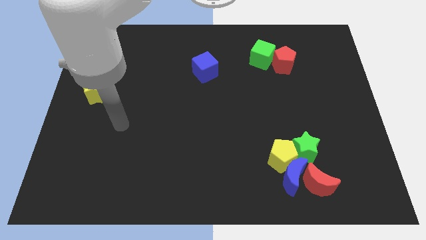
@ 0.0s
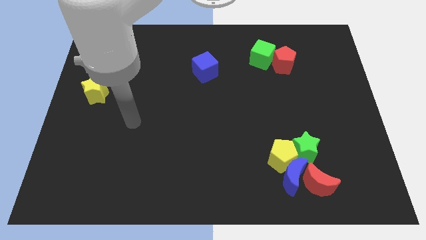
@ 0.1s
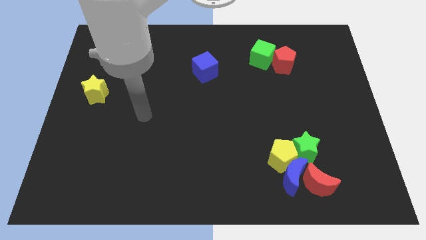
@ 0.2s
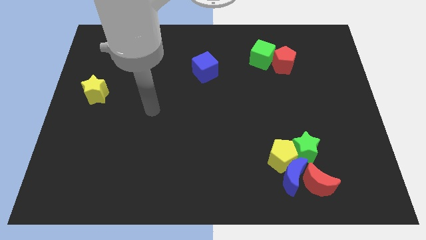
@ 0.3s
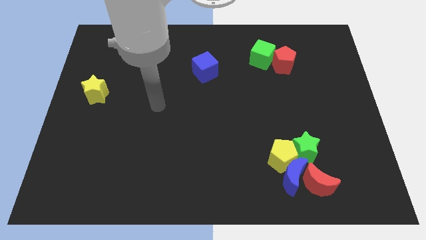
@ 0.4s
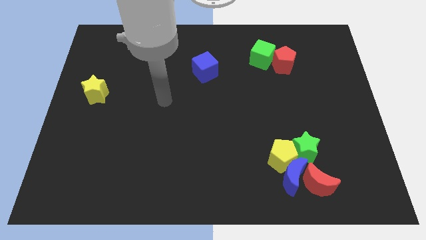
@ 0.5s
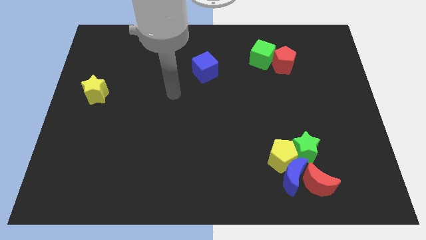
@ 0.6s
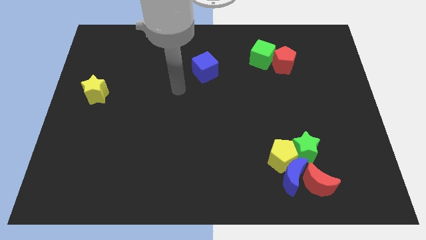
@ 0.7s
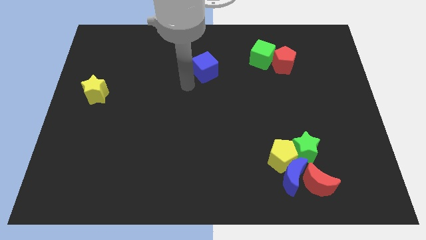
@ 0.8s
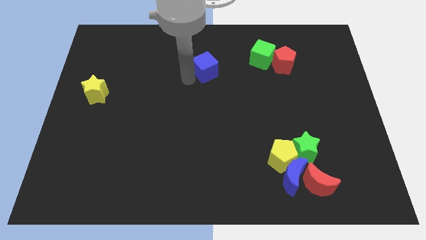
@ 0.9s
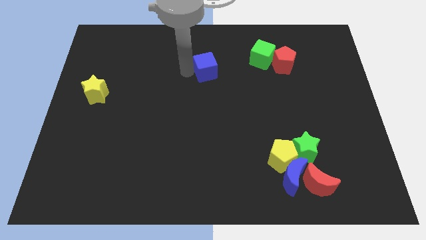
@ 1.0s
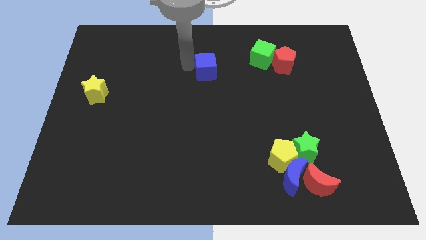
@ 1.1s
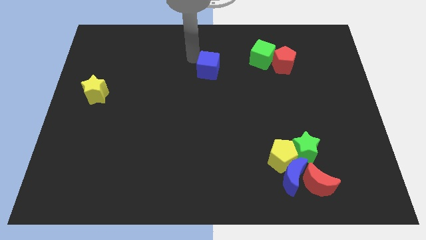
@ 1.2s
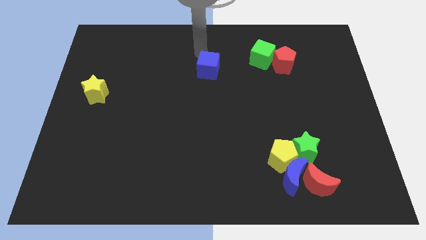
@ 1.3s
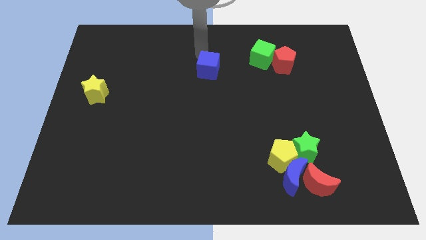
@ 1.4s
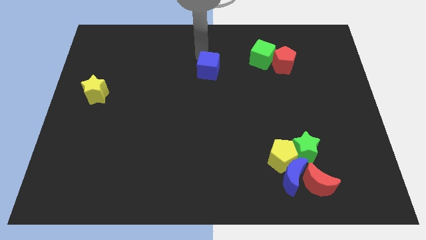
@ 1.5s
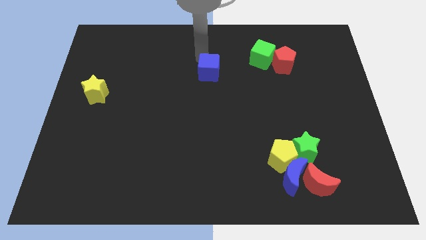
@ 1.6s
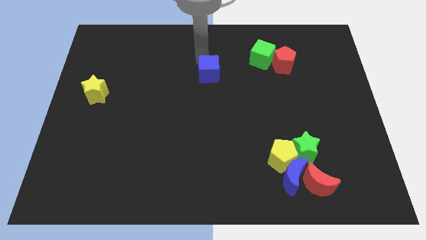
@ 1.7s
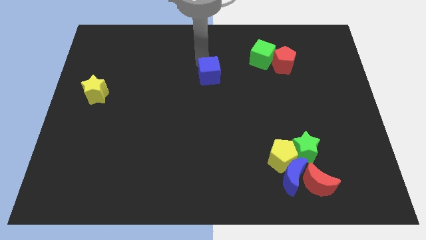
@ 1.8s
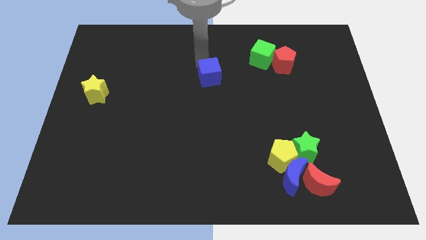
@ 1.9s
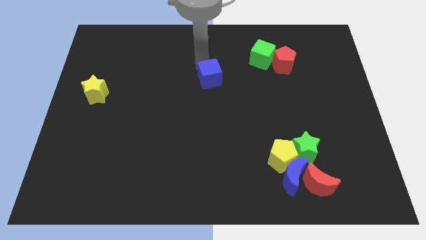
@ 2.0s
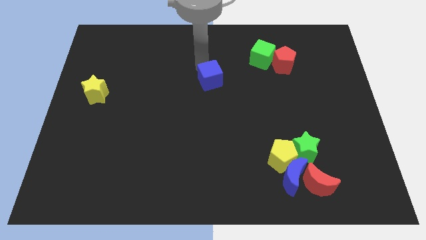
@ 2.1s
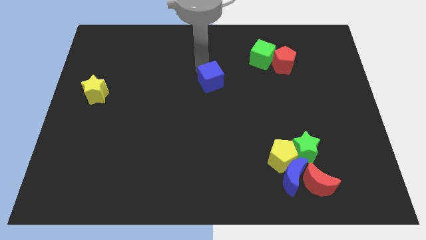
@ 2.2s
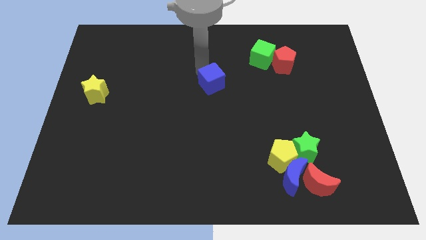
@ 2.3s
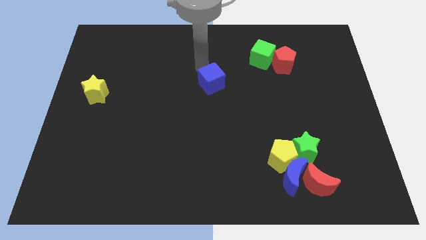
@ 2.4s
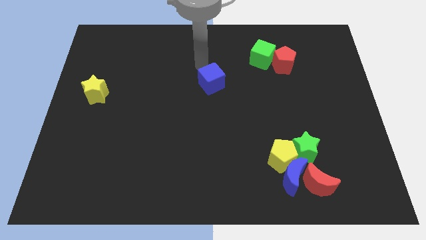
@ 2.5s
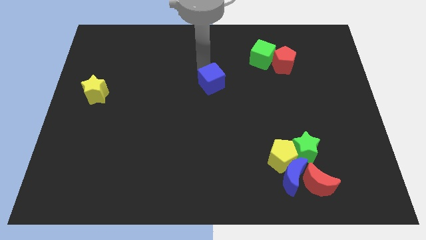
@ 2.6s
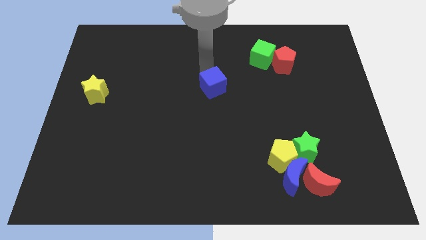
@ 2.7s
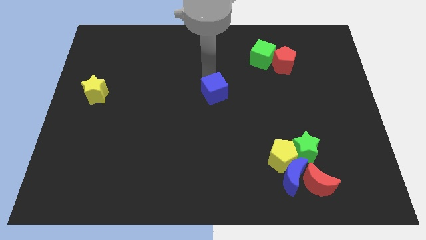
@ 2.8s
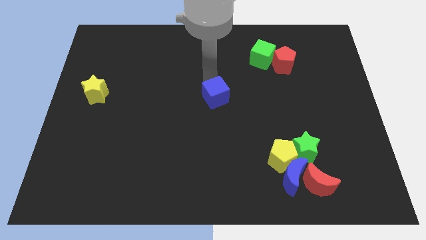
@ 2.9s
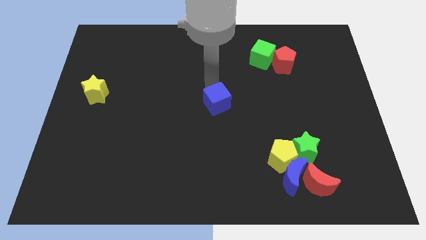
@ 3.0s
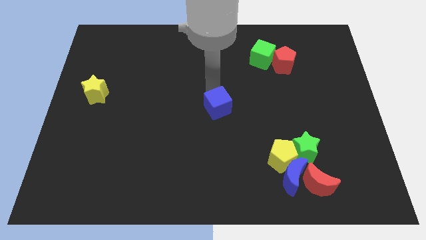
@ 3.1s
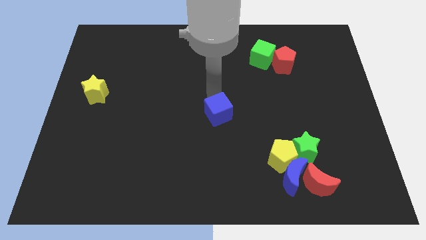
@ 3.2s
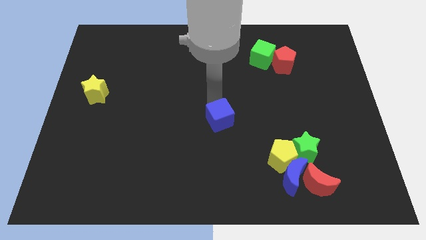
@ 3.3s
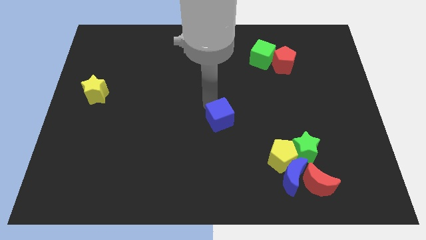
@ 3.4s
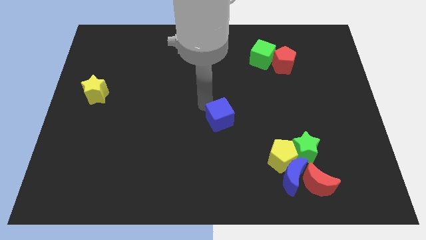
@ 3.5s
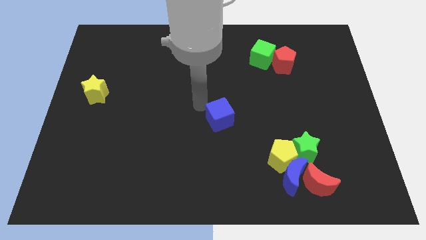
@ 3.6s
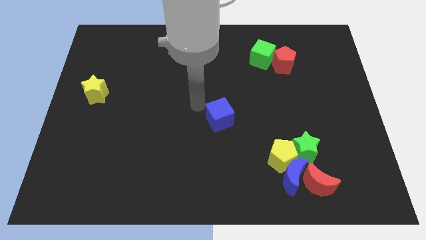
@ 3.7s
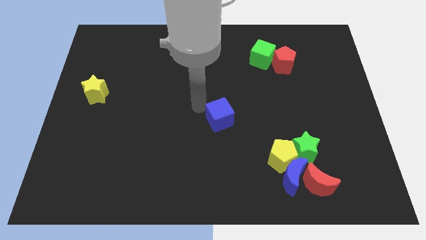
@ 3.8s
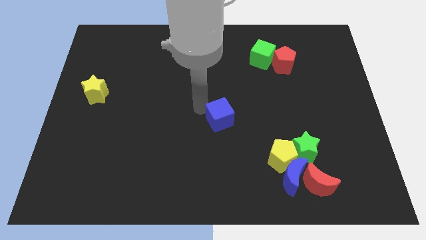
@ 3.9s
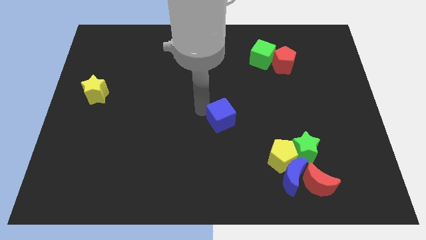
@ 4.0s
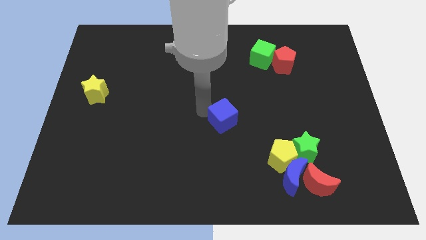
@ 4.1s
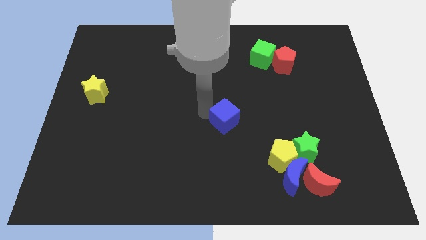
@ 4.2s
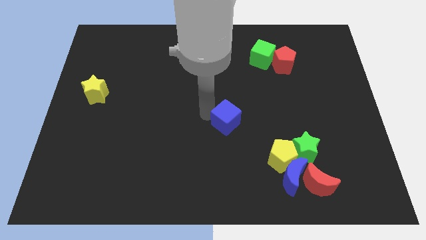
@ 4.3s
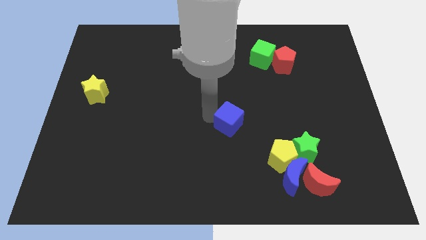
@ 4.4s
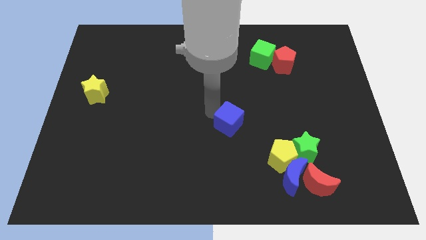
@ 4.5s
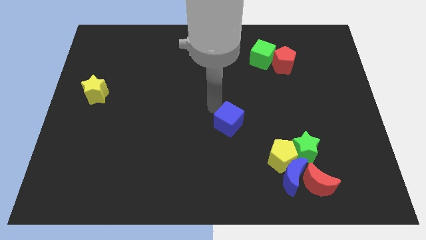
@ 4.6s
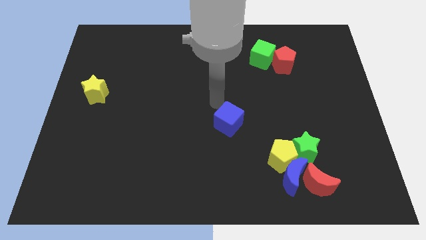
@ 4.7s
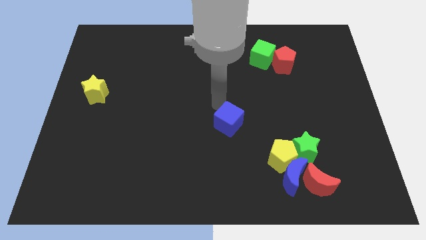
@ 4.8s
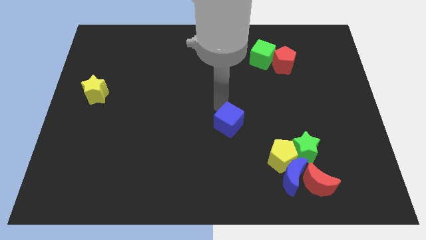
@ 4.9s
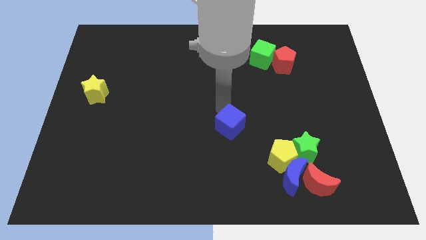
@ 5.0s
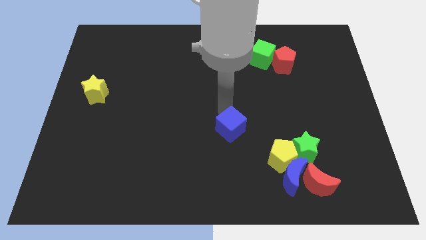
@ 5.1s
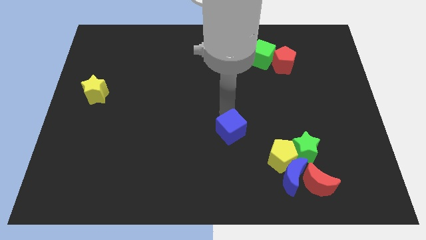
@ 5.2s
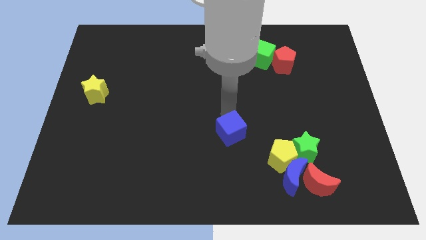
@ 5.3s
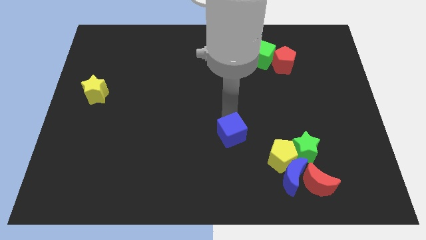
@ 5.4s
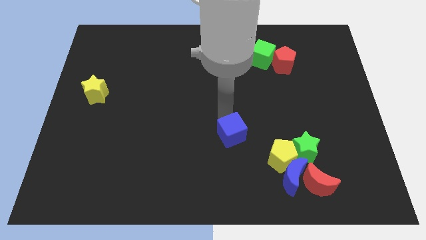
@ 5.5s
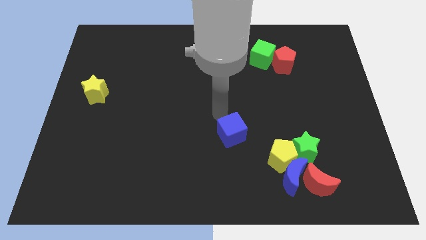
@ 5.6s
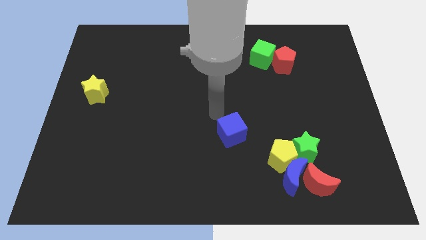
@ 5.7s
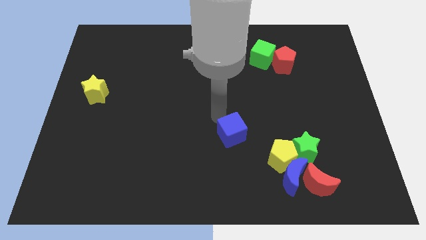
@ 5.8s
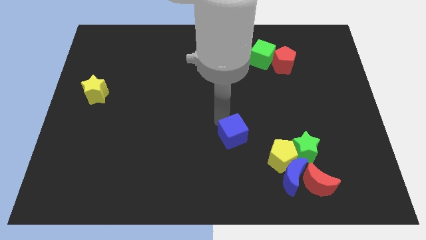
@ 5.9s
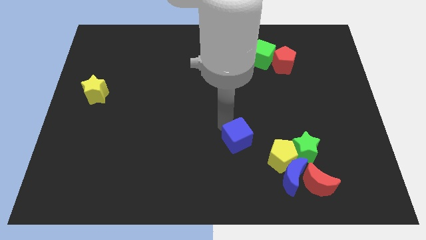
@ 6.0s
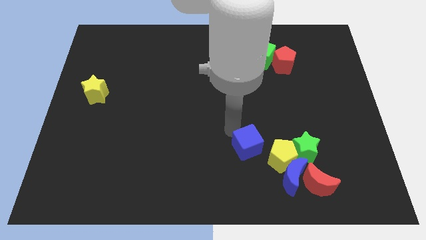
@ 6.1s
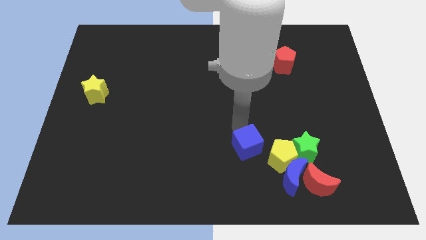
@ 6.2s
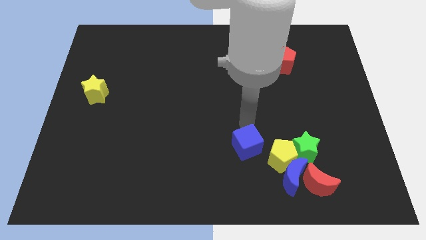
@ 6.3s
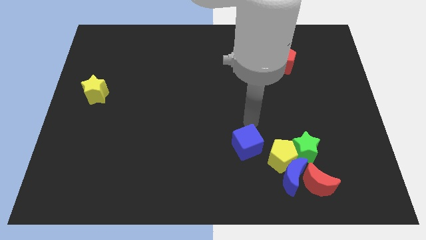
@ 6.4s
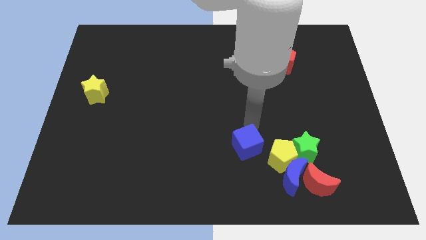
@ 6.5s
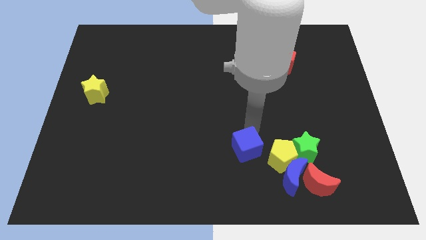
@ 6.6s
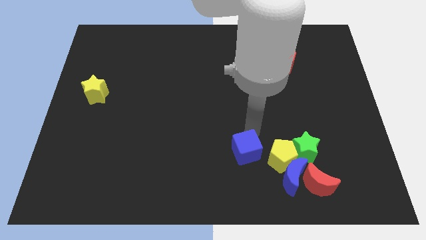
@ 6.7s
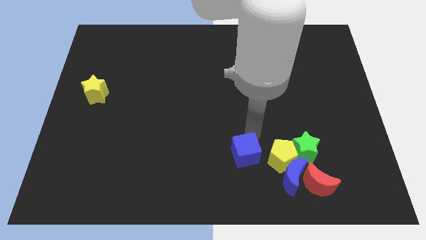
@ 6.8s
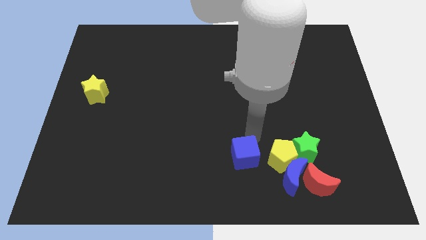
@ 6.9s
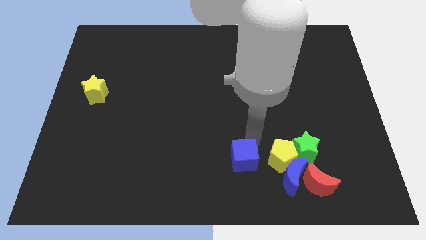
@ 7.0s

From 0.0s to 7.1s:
slide the blue cube left of the blue moon
